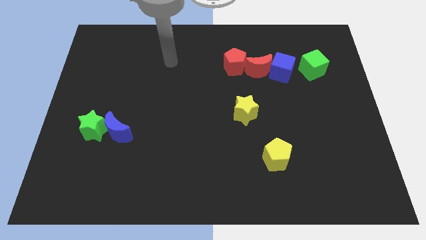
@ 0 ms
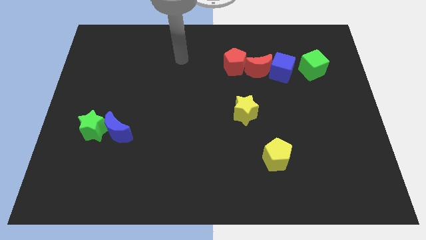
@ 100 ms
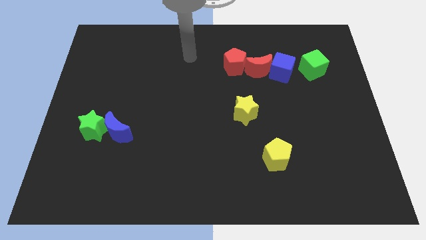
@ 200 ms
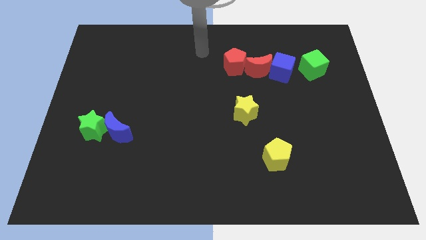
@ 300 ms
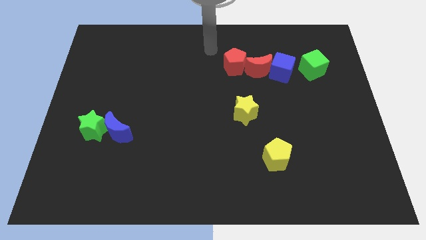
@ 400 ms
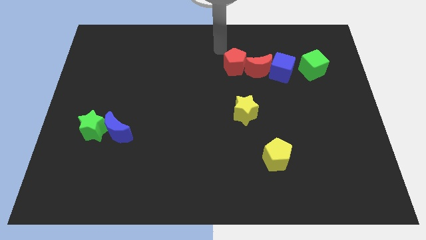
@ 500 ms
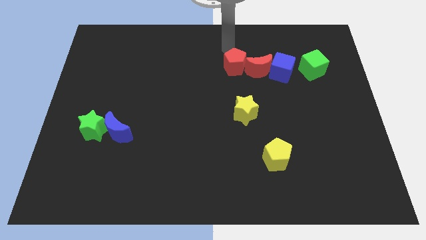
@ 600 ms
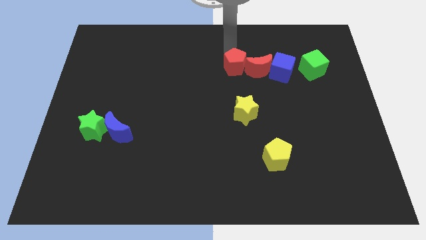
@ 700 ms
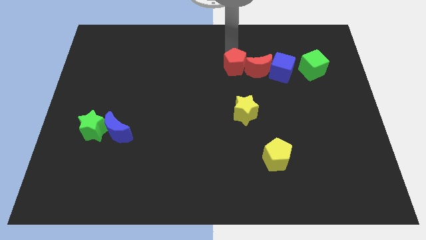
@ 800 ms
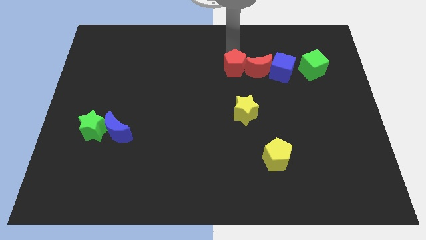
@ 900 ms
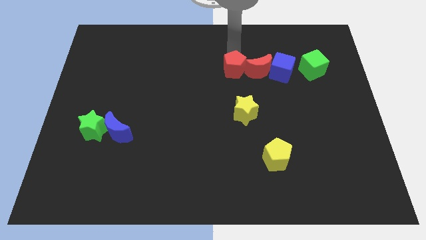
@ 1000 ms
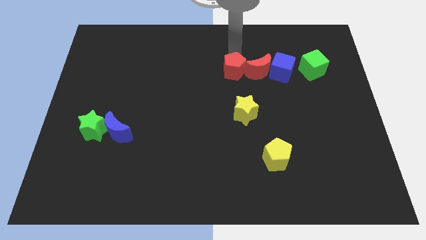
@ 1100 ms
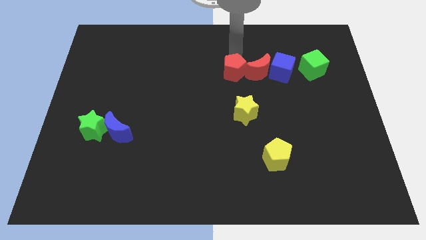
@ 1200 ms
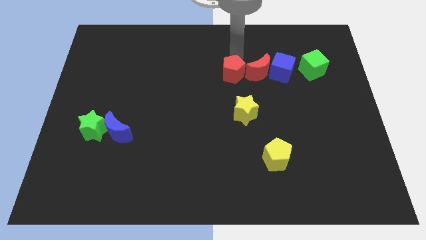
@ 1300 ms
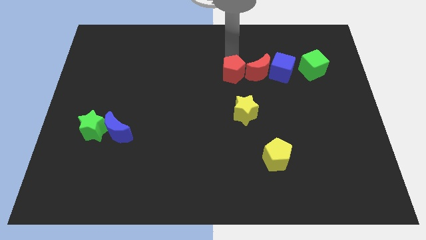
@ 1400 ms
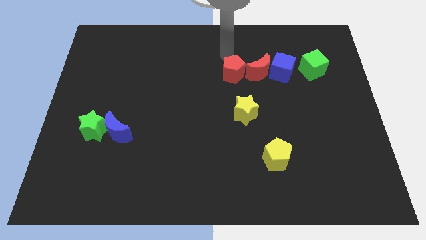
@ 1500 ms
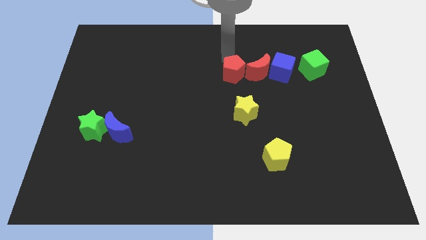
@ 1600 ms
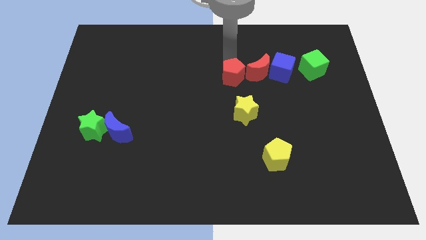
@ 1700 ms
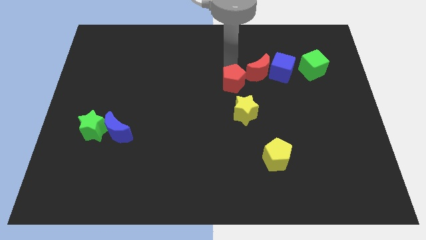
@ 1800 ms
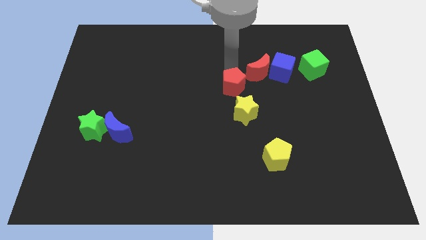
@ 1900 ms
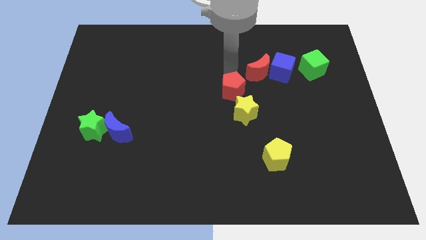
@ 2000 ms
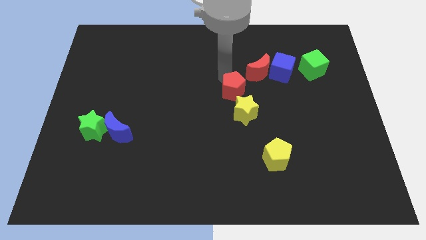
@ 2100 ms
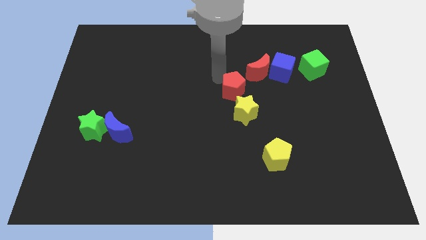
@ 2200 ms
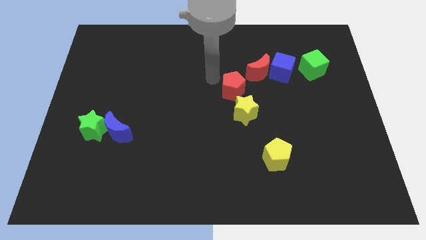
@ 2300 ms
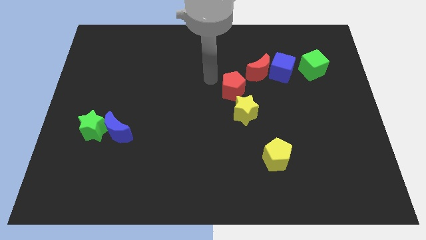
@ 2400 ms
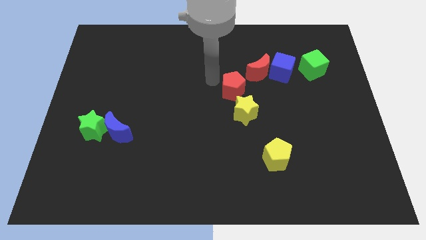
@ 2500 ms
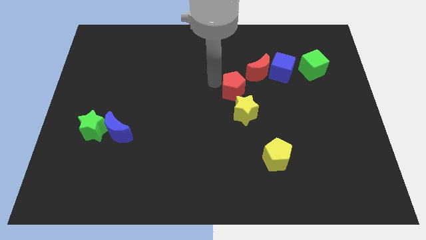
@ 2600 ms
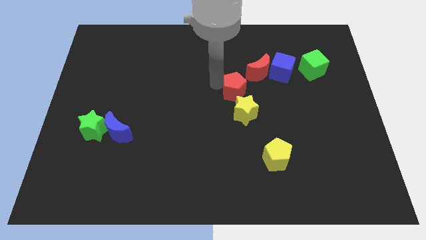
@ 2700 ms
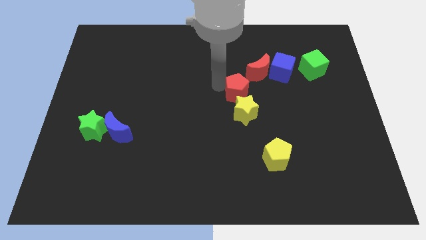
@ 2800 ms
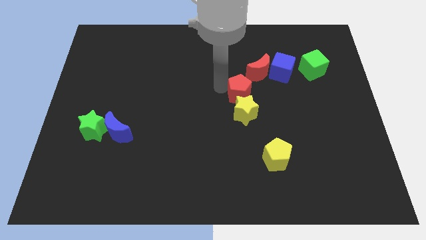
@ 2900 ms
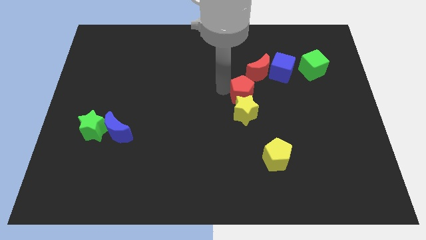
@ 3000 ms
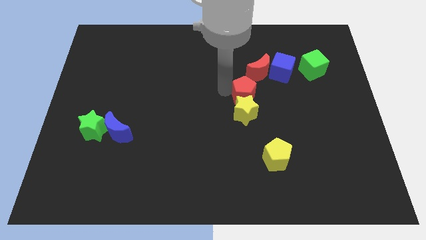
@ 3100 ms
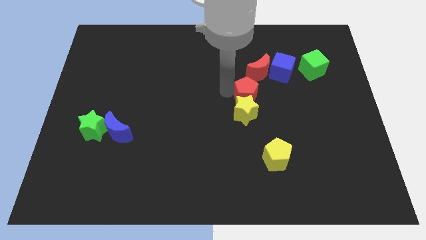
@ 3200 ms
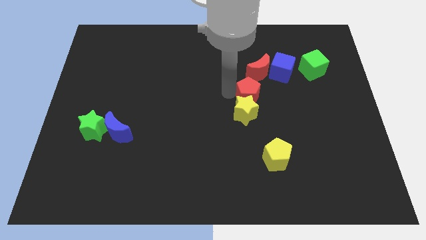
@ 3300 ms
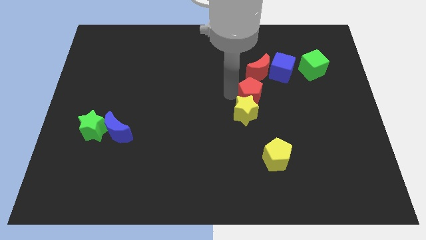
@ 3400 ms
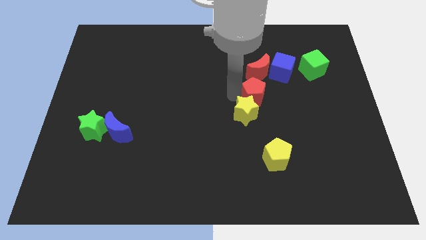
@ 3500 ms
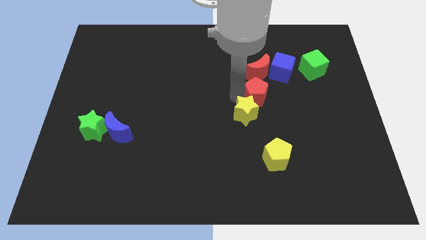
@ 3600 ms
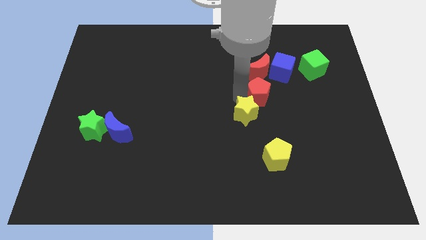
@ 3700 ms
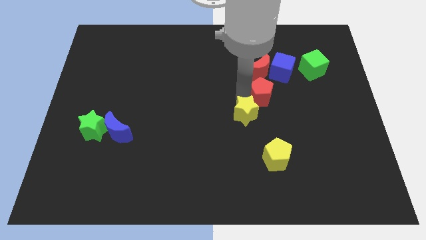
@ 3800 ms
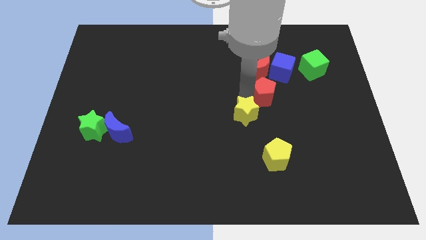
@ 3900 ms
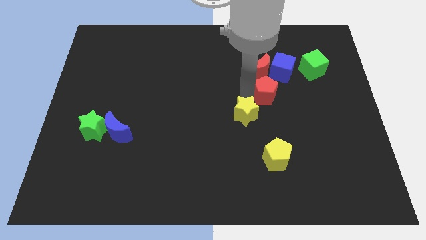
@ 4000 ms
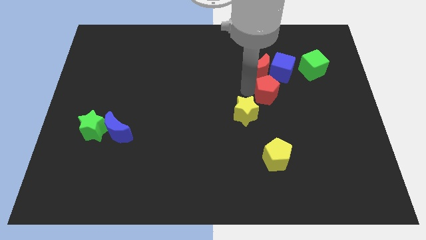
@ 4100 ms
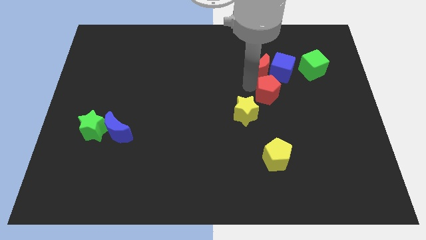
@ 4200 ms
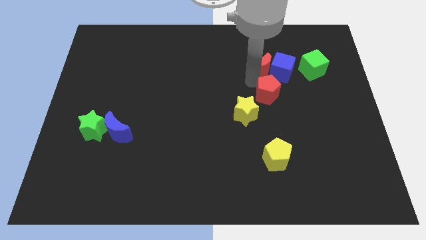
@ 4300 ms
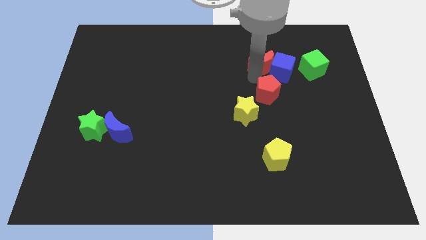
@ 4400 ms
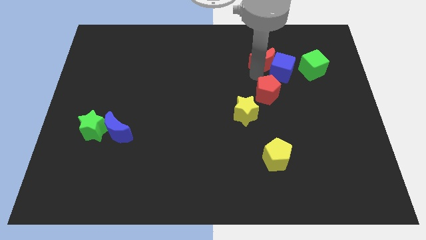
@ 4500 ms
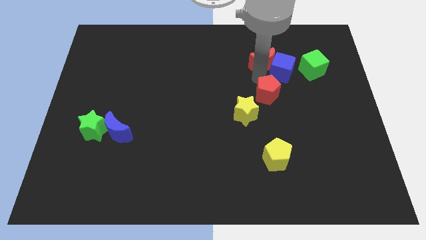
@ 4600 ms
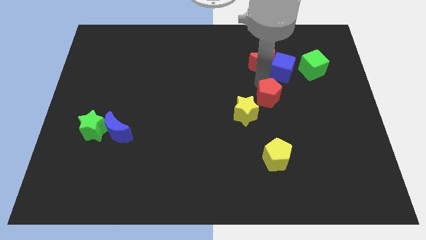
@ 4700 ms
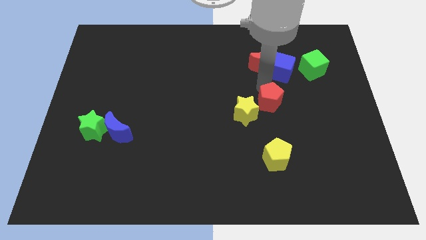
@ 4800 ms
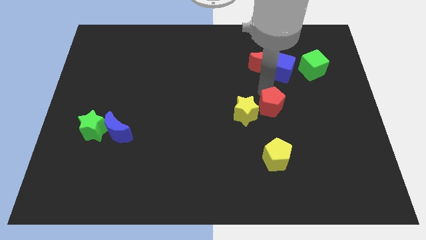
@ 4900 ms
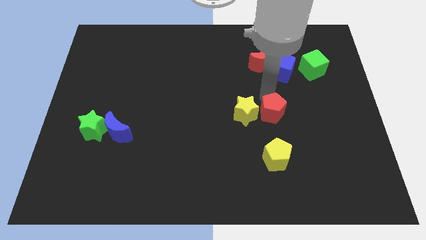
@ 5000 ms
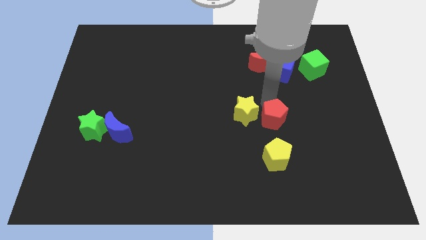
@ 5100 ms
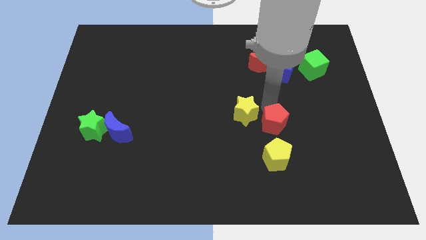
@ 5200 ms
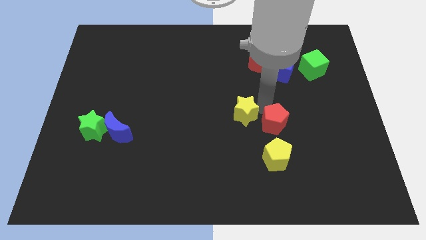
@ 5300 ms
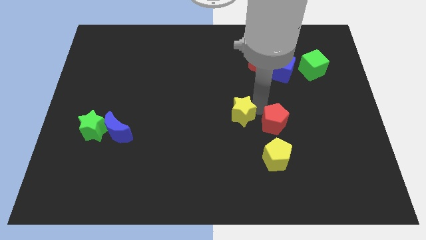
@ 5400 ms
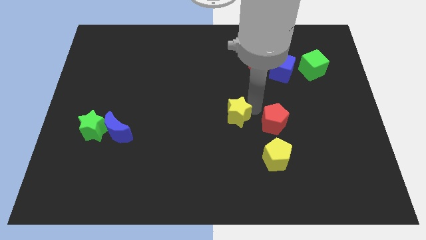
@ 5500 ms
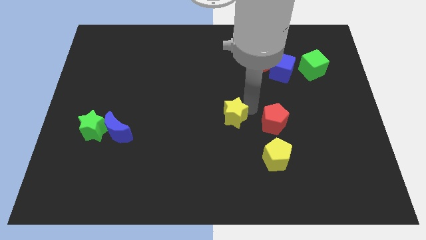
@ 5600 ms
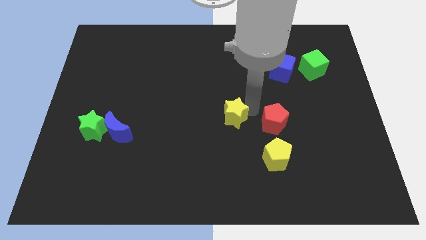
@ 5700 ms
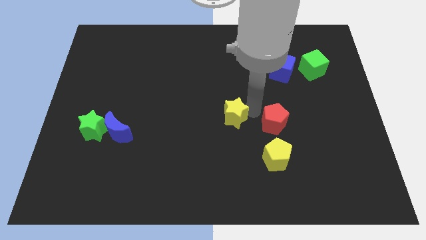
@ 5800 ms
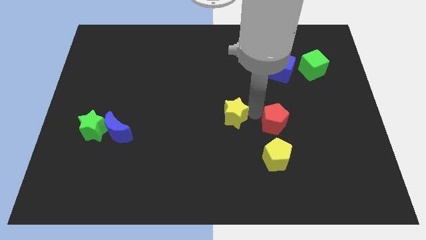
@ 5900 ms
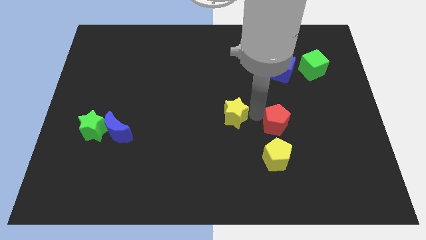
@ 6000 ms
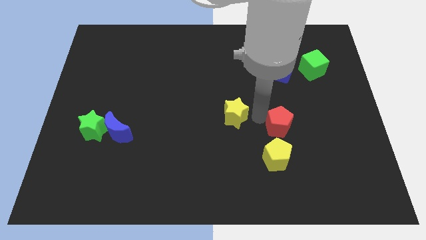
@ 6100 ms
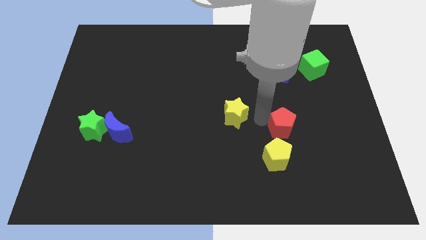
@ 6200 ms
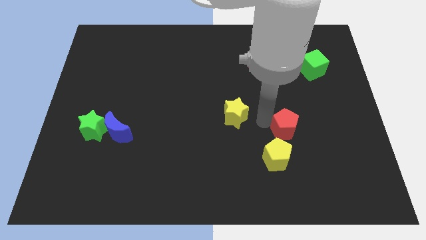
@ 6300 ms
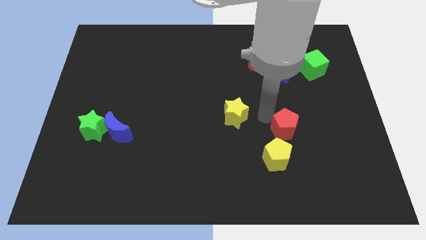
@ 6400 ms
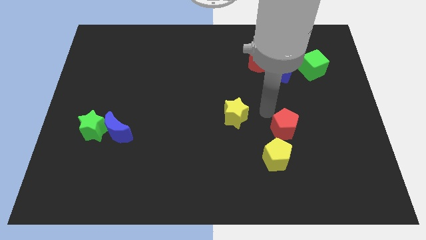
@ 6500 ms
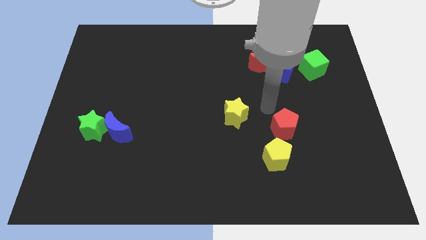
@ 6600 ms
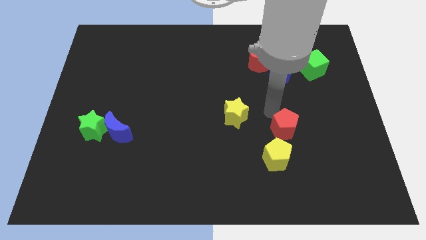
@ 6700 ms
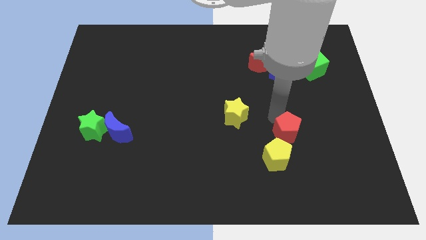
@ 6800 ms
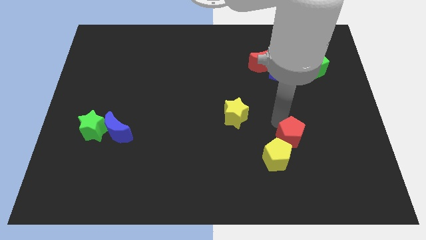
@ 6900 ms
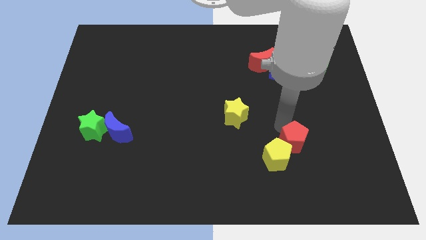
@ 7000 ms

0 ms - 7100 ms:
move the red pentagon next to the yellow pentagon
